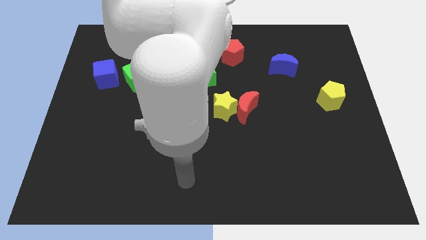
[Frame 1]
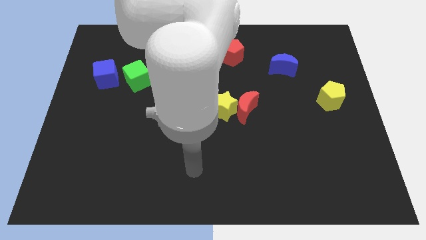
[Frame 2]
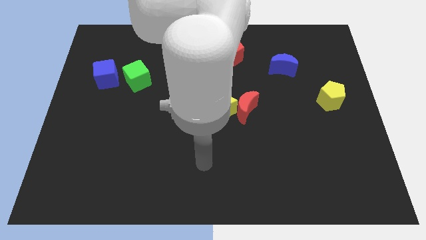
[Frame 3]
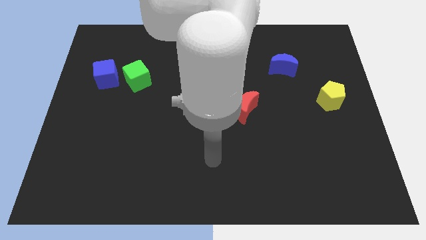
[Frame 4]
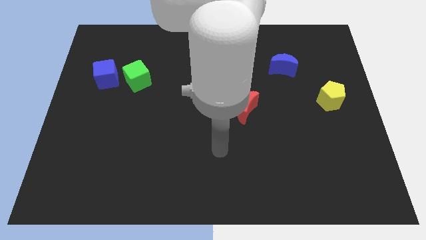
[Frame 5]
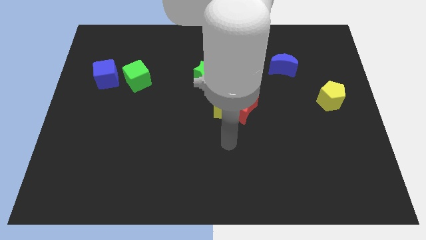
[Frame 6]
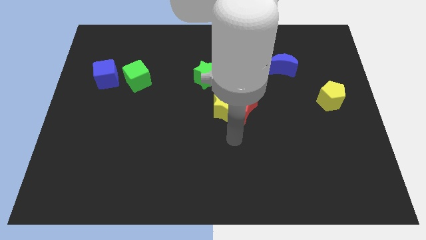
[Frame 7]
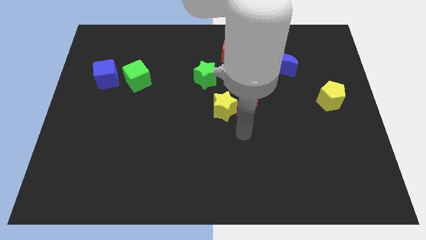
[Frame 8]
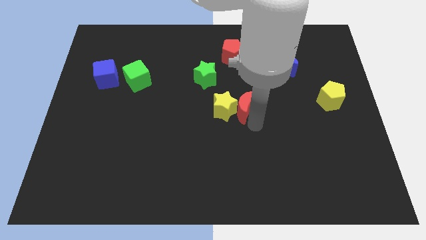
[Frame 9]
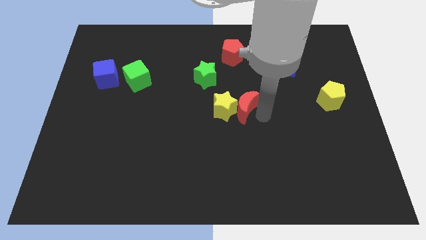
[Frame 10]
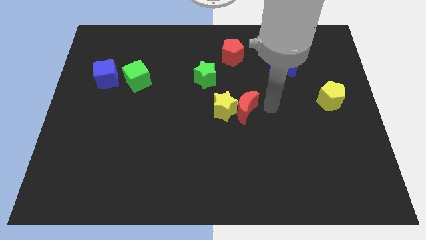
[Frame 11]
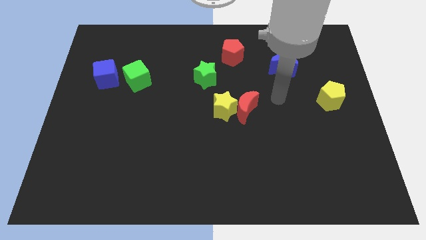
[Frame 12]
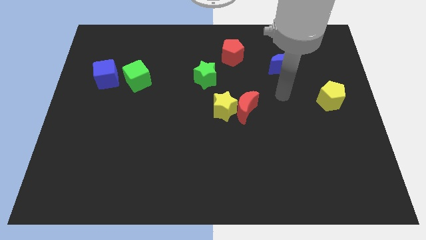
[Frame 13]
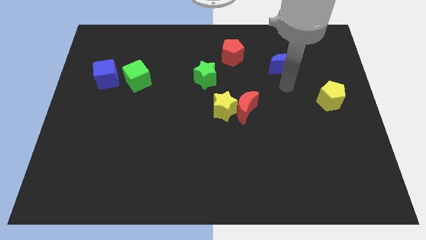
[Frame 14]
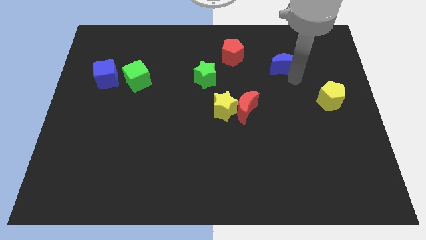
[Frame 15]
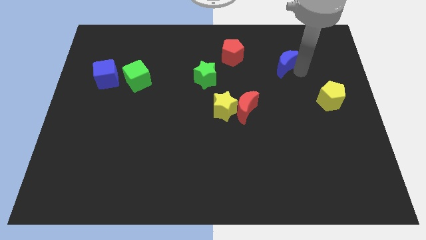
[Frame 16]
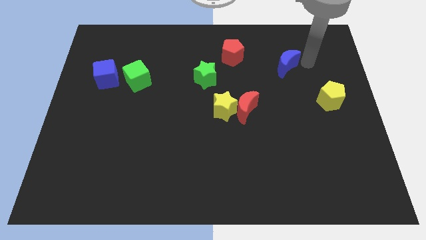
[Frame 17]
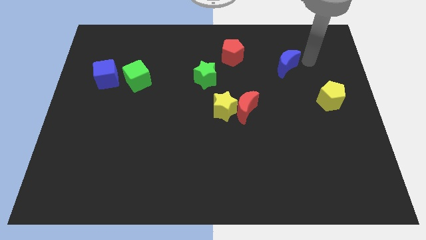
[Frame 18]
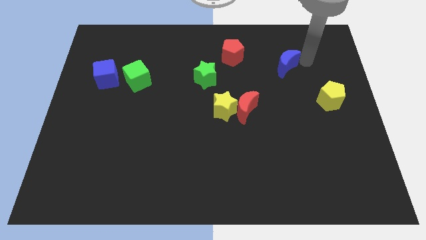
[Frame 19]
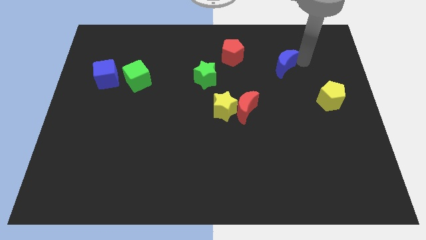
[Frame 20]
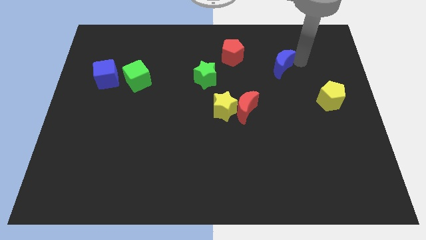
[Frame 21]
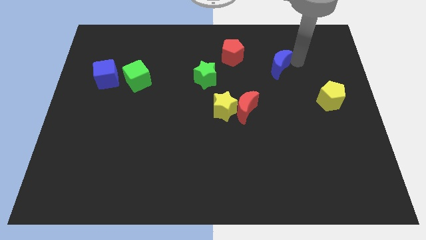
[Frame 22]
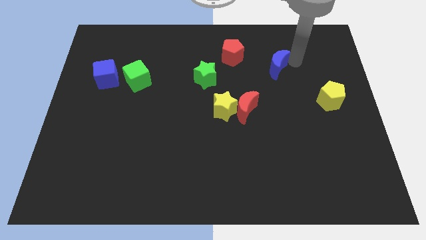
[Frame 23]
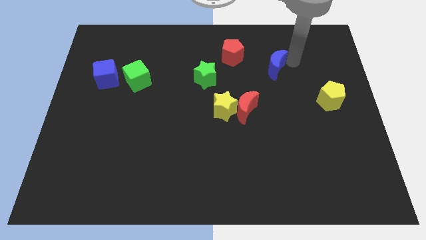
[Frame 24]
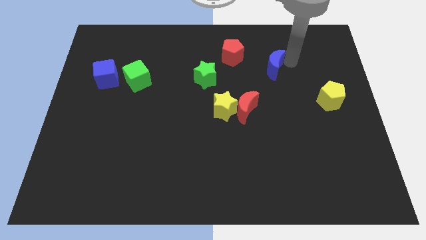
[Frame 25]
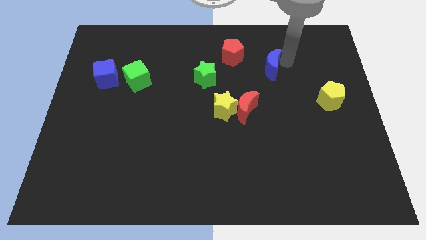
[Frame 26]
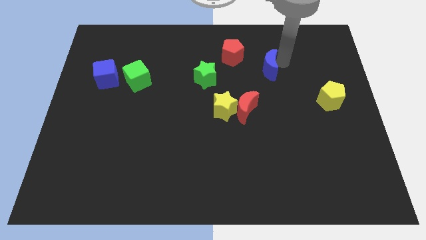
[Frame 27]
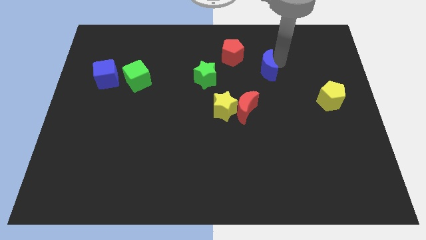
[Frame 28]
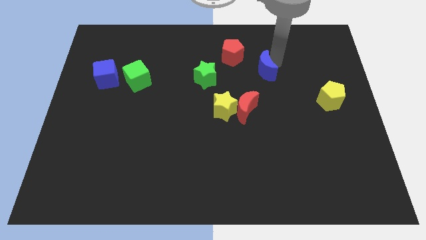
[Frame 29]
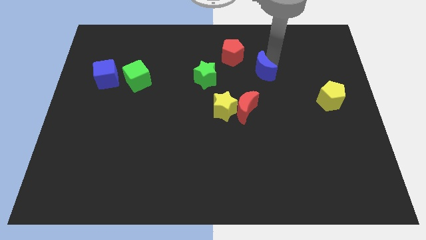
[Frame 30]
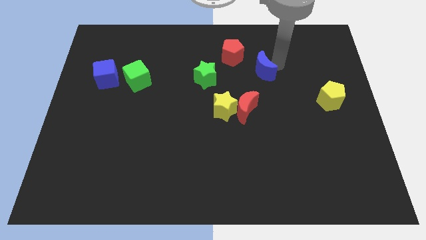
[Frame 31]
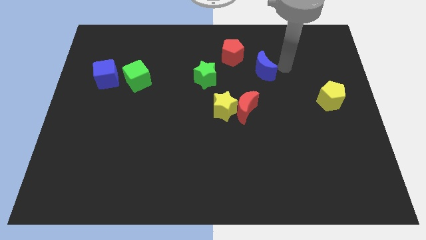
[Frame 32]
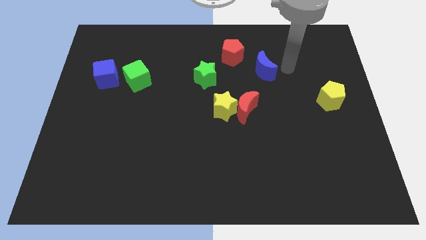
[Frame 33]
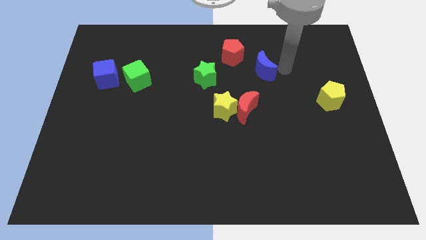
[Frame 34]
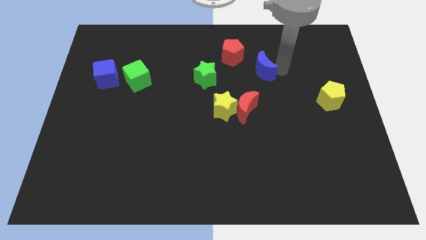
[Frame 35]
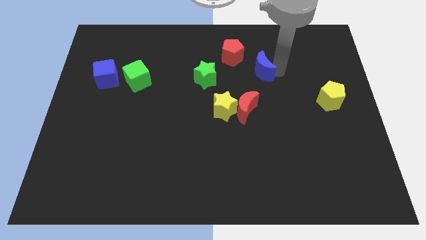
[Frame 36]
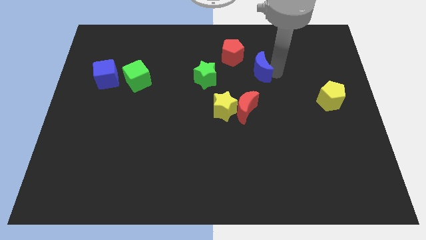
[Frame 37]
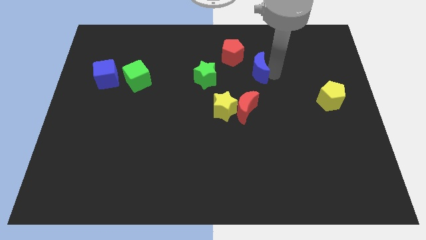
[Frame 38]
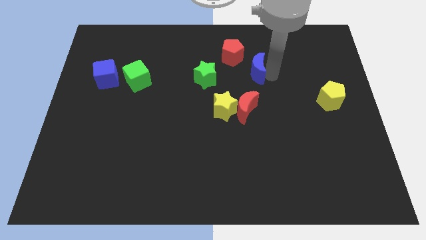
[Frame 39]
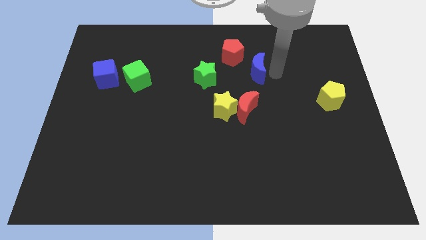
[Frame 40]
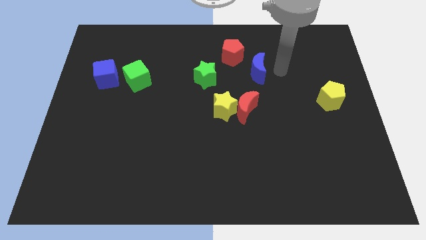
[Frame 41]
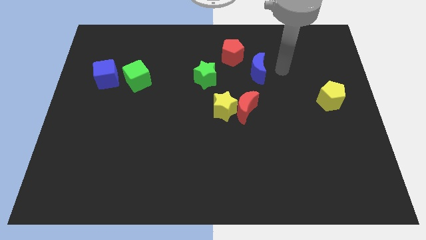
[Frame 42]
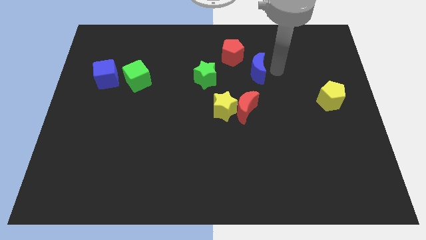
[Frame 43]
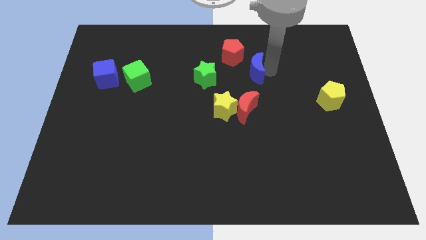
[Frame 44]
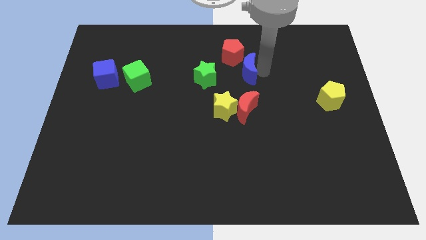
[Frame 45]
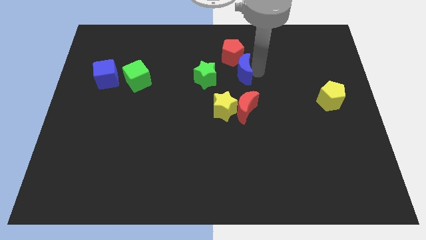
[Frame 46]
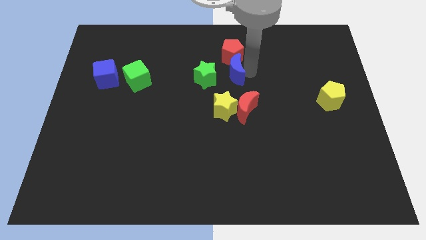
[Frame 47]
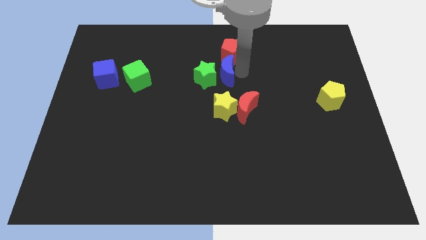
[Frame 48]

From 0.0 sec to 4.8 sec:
push the blue moon next to the green star

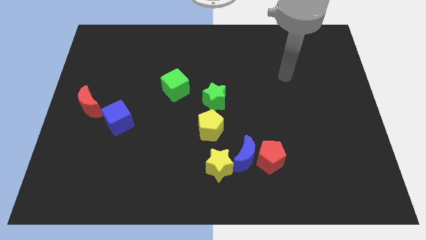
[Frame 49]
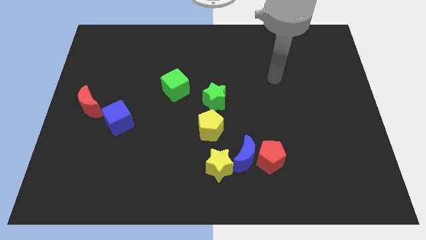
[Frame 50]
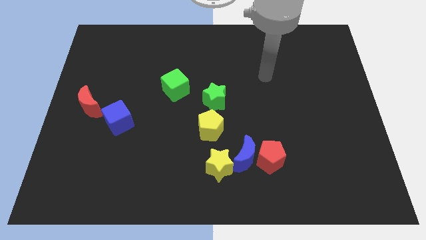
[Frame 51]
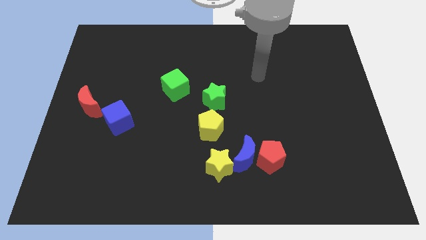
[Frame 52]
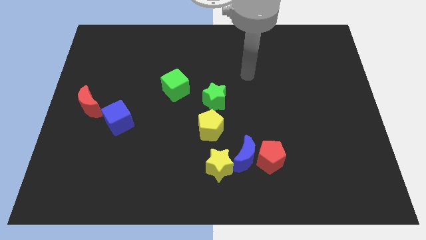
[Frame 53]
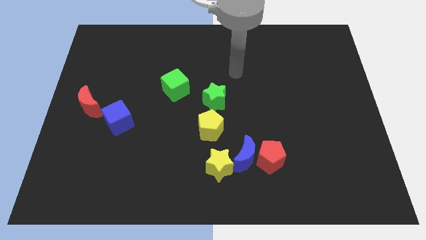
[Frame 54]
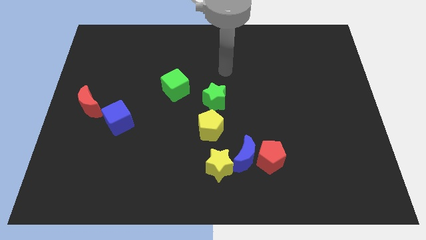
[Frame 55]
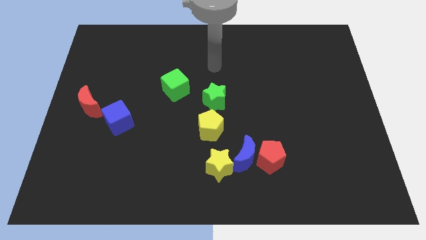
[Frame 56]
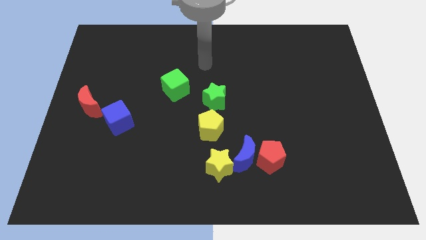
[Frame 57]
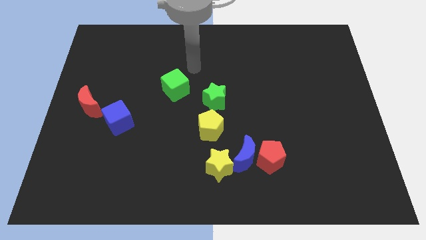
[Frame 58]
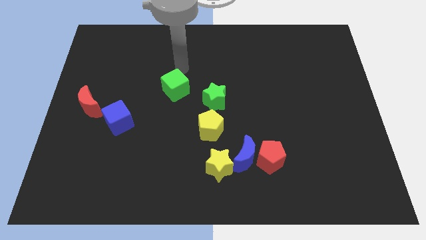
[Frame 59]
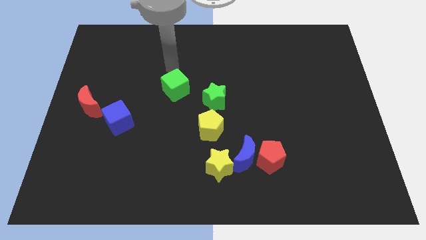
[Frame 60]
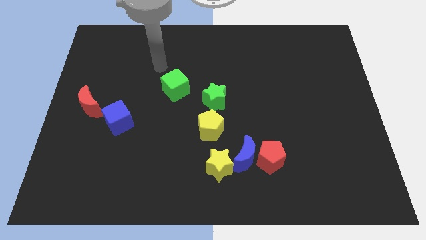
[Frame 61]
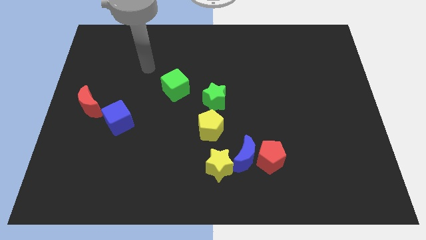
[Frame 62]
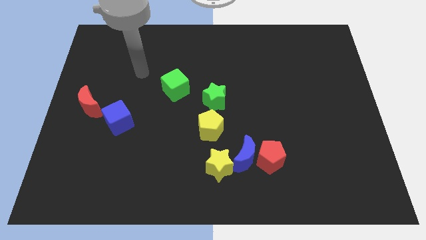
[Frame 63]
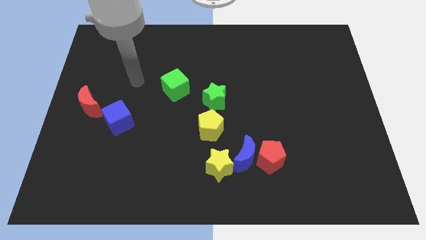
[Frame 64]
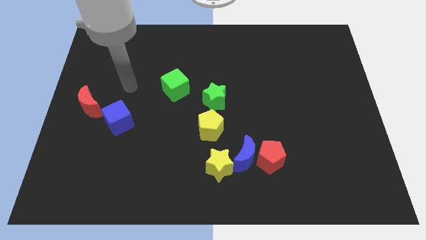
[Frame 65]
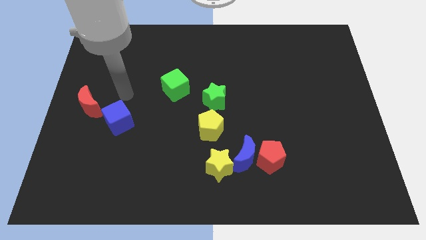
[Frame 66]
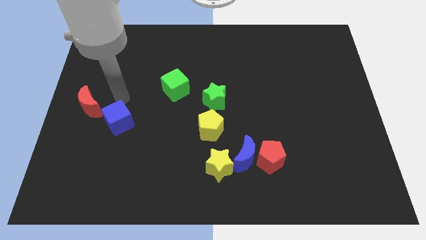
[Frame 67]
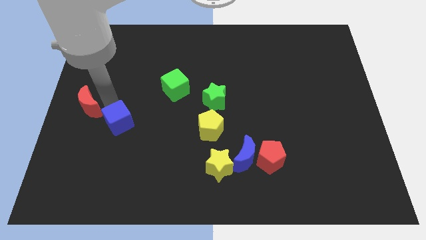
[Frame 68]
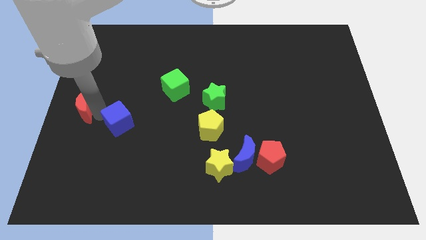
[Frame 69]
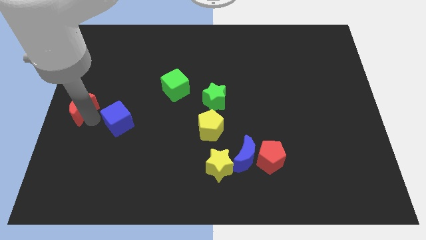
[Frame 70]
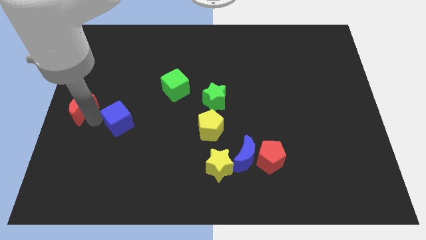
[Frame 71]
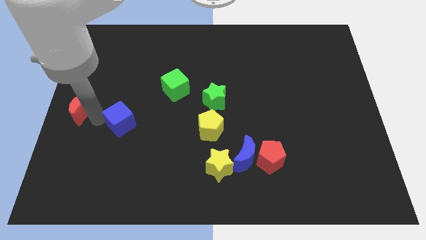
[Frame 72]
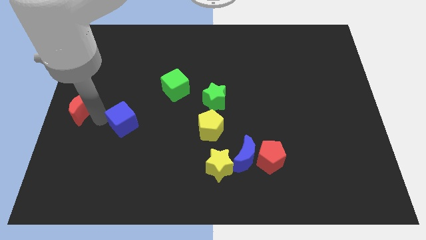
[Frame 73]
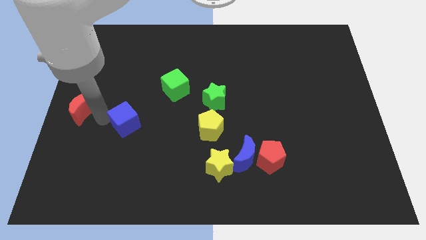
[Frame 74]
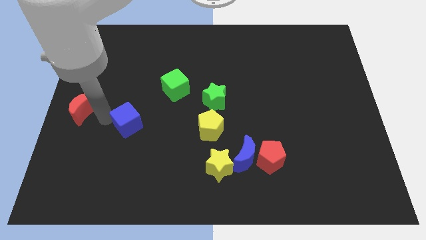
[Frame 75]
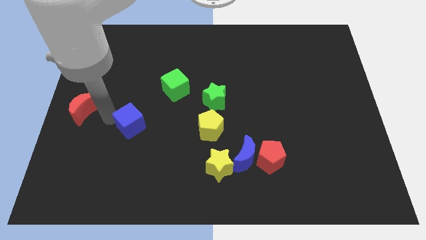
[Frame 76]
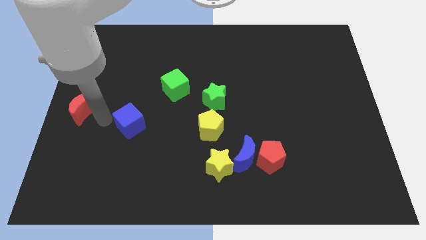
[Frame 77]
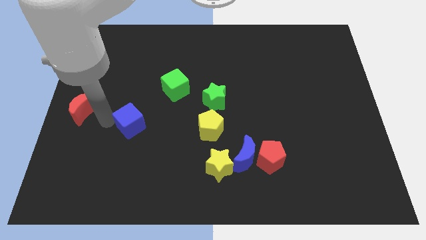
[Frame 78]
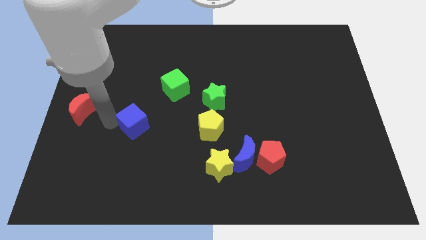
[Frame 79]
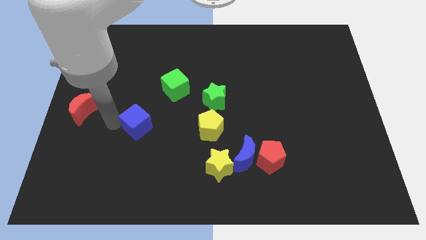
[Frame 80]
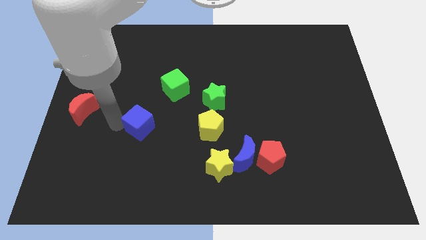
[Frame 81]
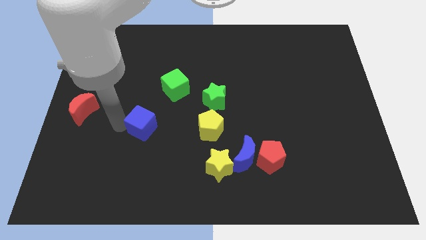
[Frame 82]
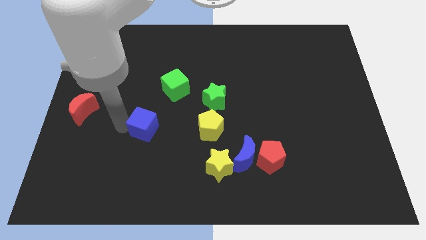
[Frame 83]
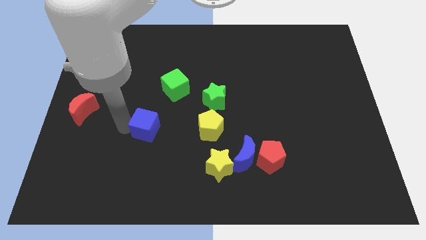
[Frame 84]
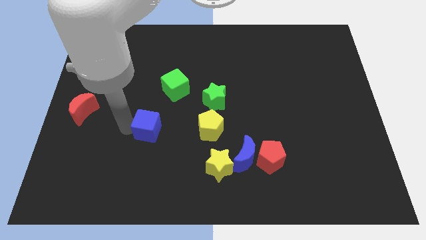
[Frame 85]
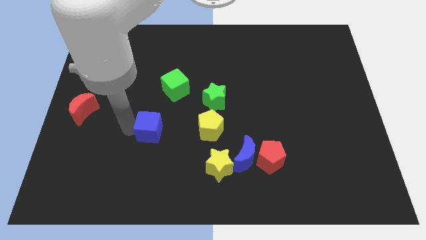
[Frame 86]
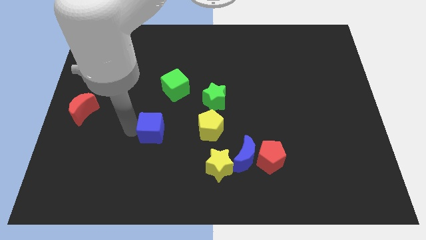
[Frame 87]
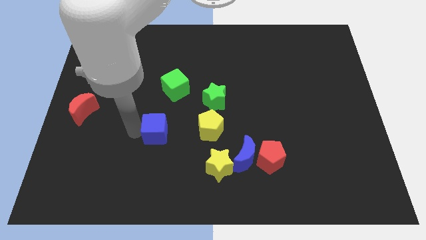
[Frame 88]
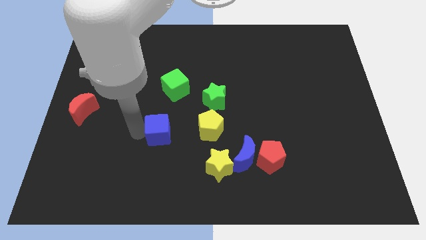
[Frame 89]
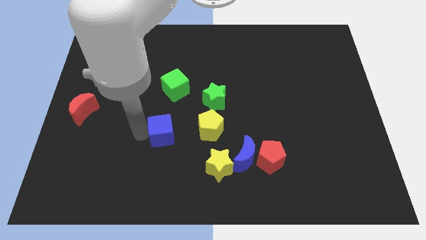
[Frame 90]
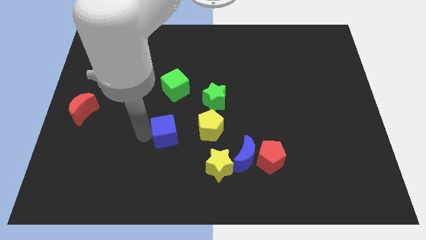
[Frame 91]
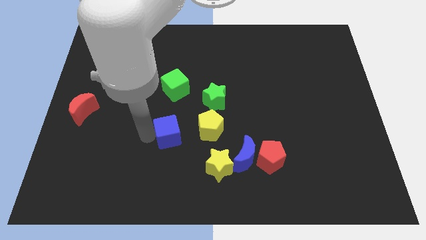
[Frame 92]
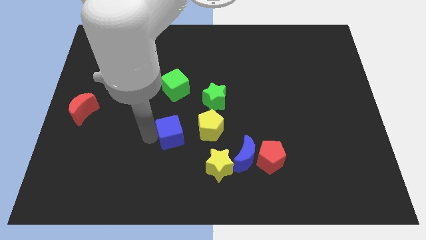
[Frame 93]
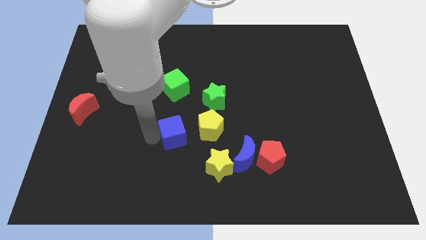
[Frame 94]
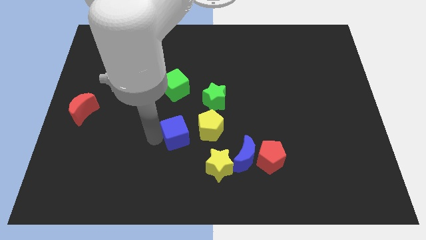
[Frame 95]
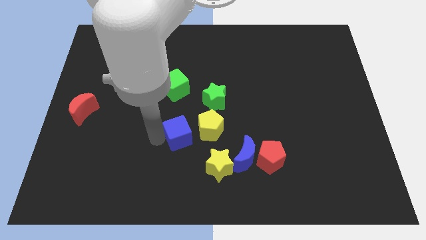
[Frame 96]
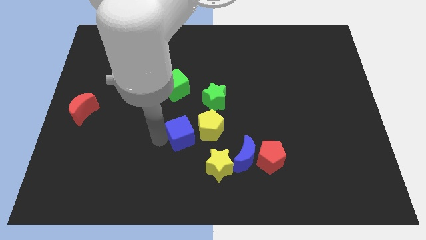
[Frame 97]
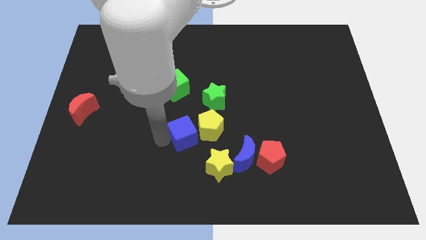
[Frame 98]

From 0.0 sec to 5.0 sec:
move the blue cube towards the yellow pentagon
